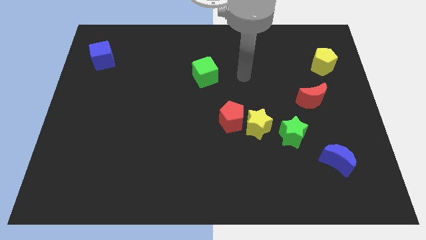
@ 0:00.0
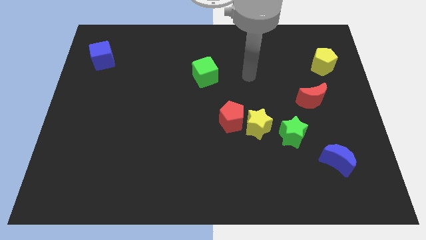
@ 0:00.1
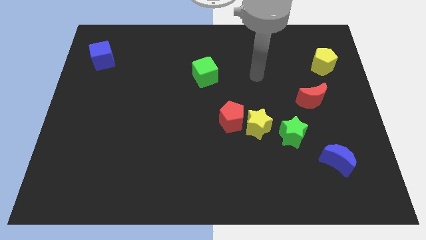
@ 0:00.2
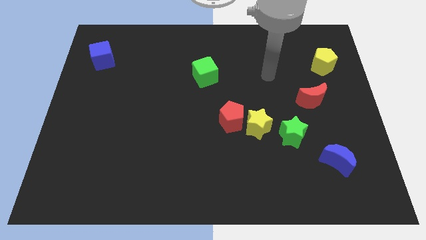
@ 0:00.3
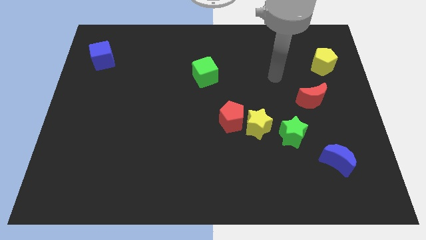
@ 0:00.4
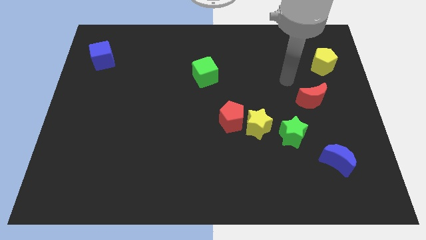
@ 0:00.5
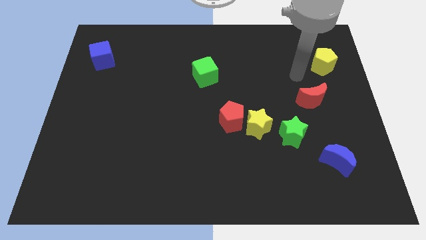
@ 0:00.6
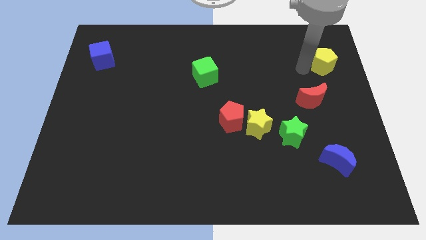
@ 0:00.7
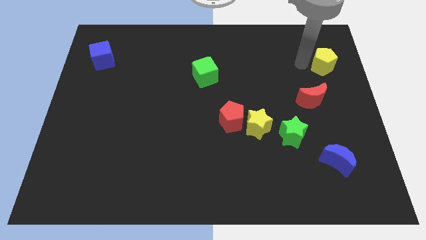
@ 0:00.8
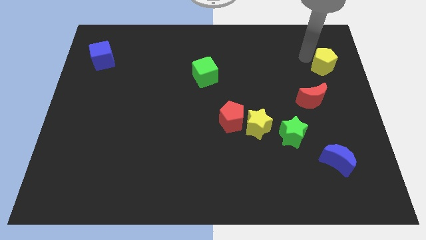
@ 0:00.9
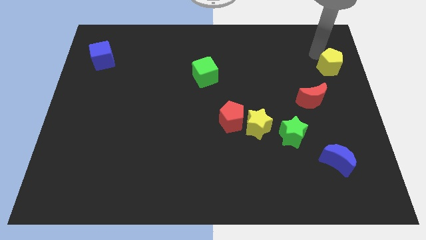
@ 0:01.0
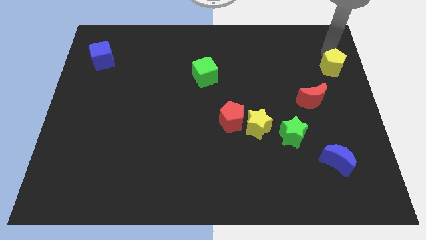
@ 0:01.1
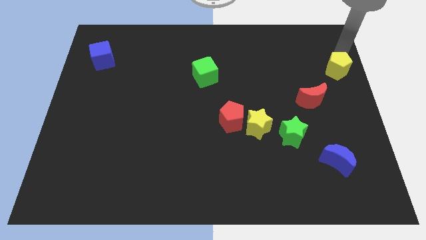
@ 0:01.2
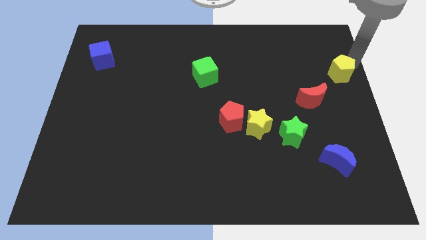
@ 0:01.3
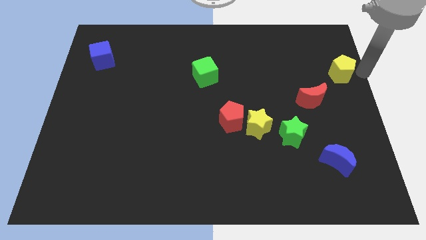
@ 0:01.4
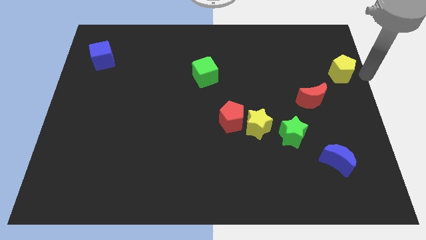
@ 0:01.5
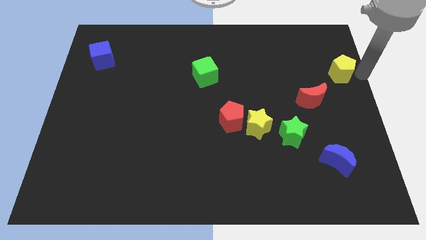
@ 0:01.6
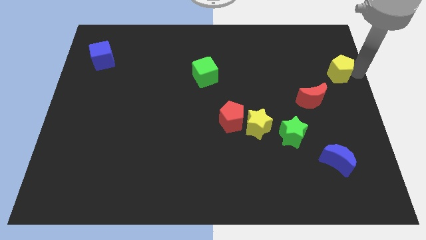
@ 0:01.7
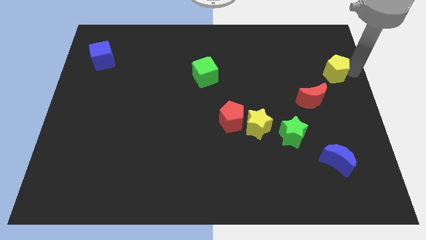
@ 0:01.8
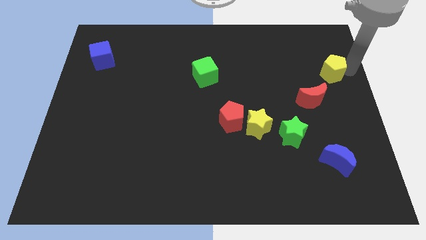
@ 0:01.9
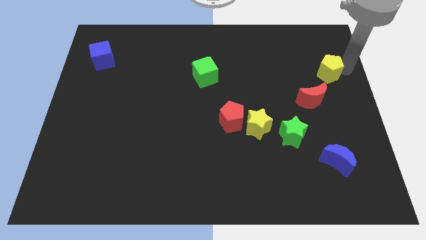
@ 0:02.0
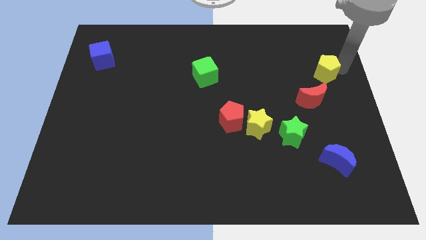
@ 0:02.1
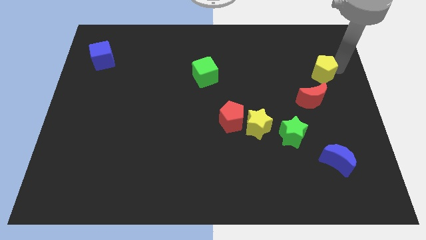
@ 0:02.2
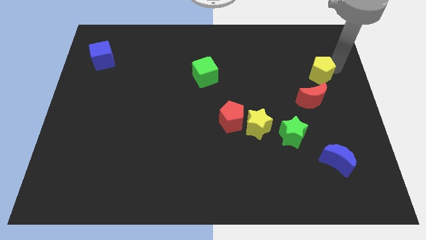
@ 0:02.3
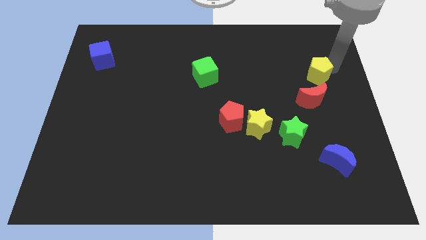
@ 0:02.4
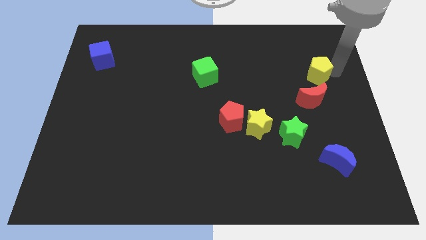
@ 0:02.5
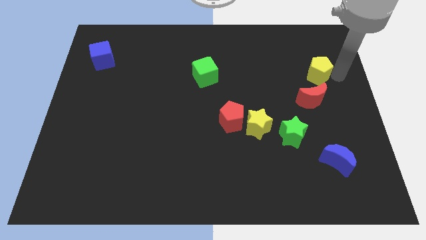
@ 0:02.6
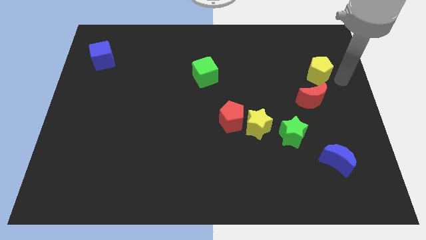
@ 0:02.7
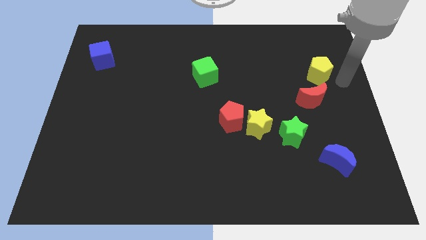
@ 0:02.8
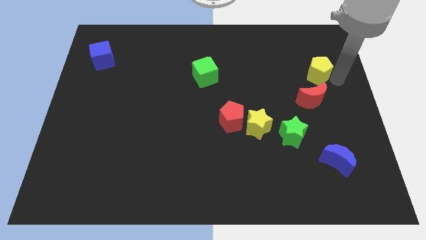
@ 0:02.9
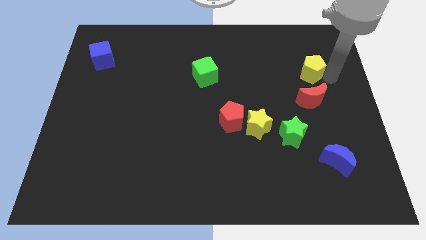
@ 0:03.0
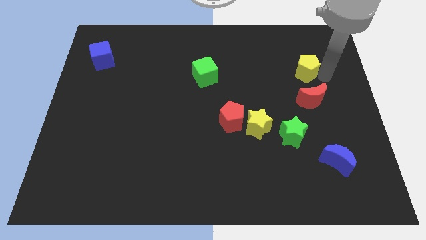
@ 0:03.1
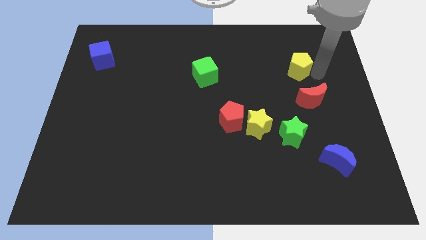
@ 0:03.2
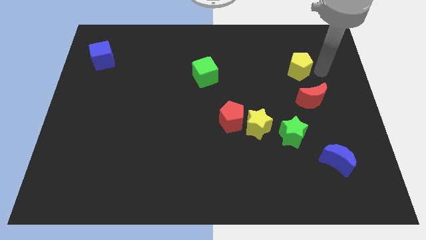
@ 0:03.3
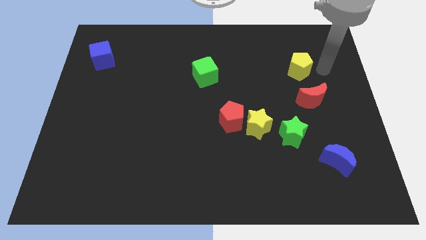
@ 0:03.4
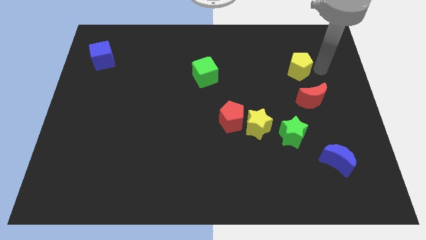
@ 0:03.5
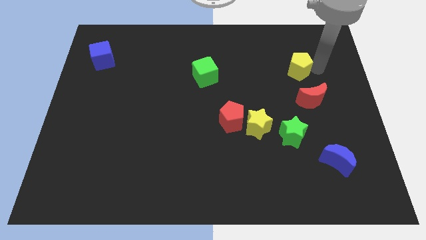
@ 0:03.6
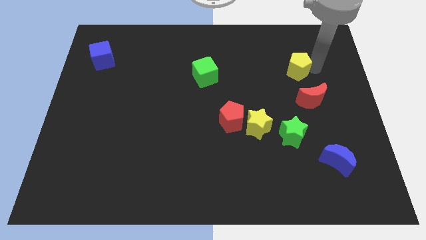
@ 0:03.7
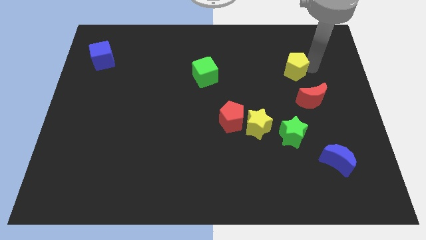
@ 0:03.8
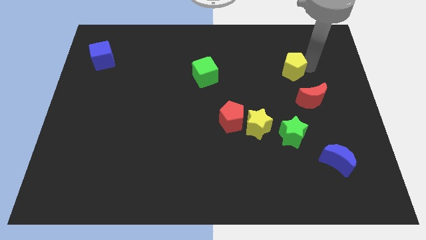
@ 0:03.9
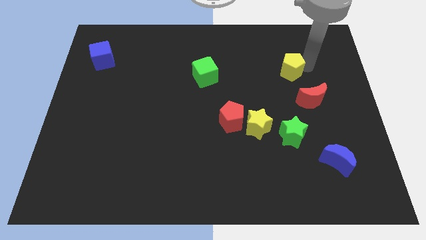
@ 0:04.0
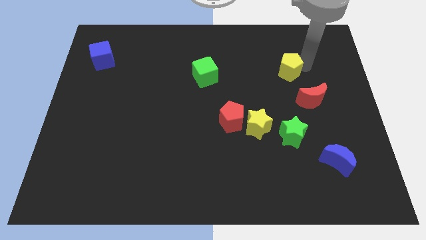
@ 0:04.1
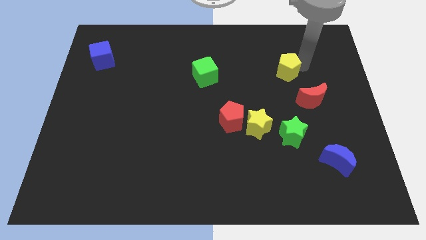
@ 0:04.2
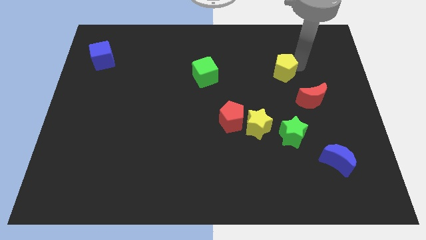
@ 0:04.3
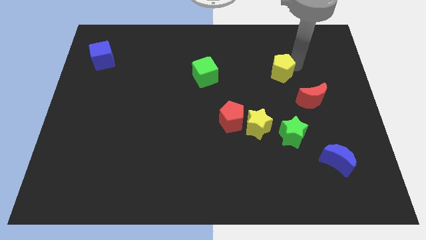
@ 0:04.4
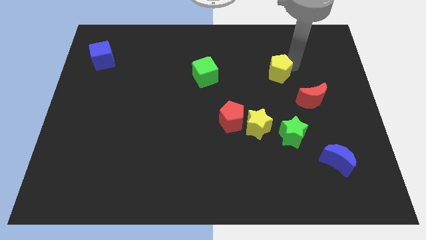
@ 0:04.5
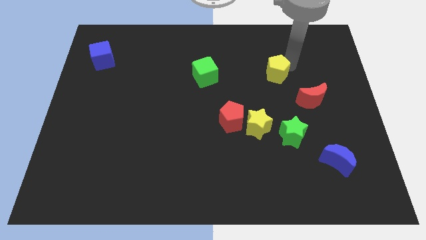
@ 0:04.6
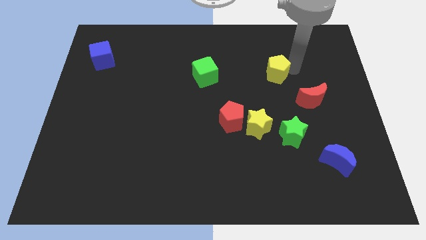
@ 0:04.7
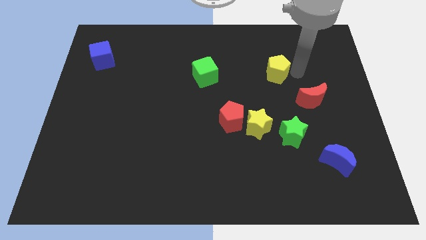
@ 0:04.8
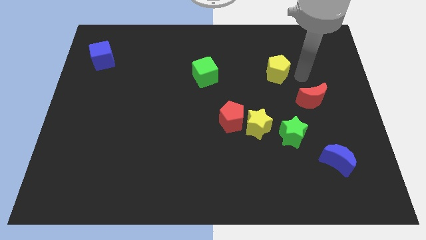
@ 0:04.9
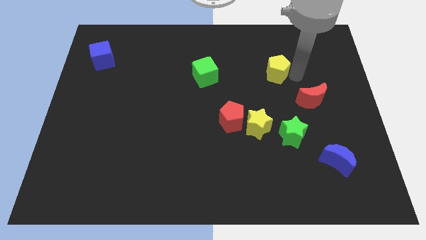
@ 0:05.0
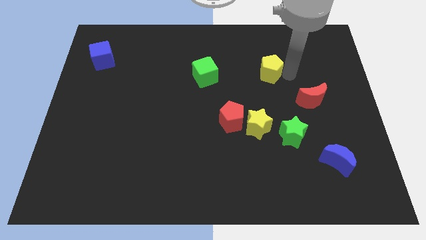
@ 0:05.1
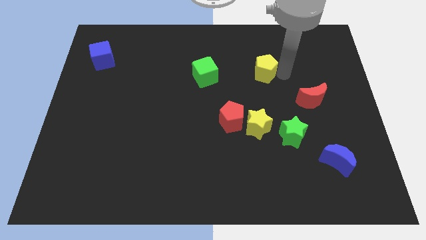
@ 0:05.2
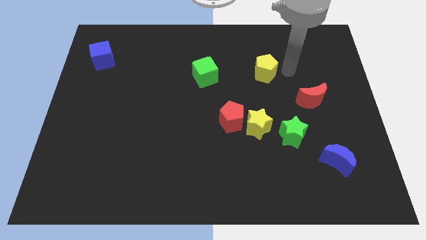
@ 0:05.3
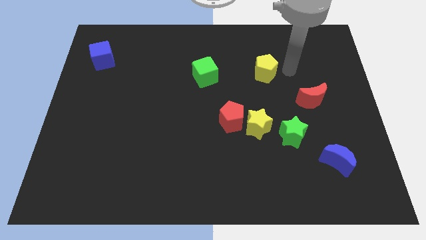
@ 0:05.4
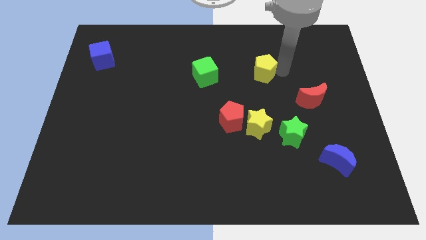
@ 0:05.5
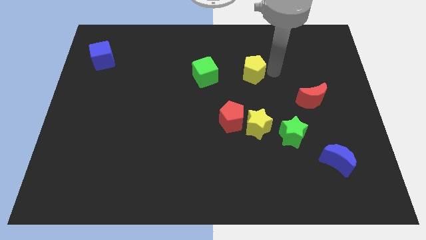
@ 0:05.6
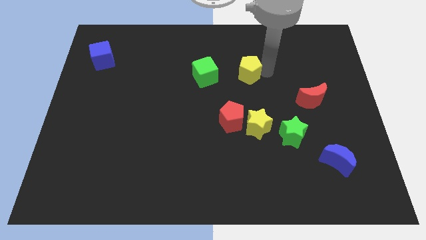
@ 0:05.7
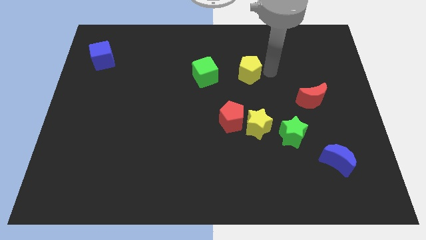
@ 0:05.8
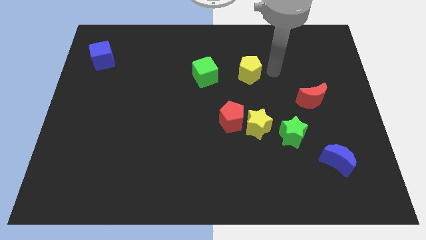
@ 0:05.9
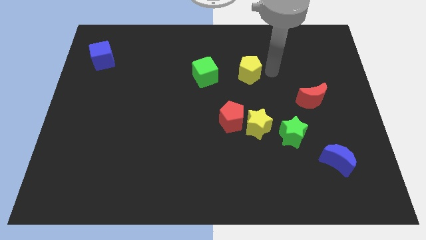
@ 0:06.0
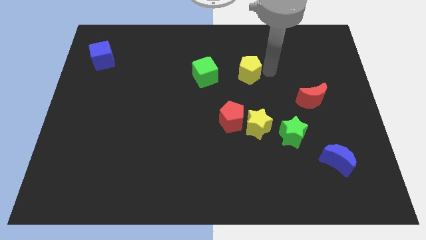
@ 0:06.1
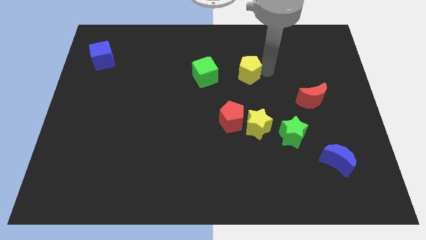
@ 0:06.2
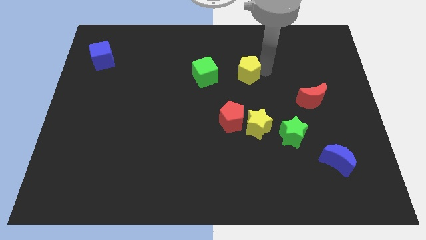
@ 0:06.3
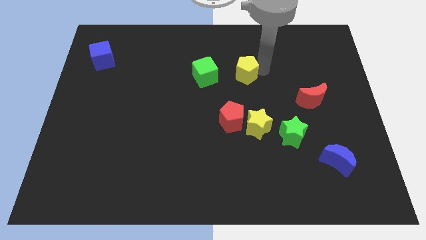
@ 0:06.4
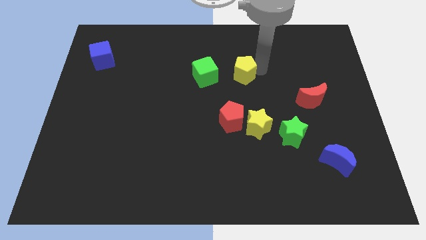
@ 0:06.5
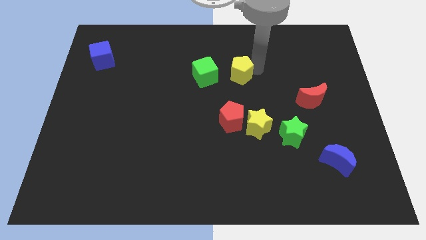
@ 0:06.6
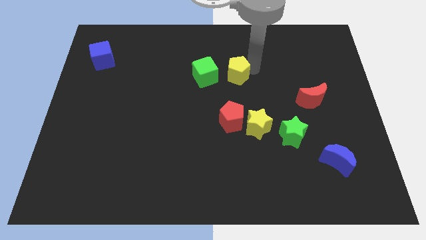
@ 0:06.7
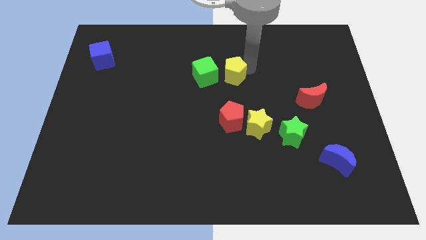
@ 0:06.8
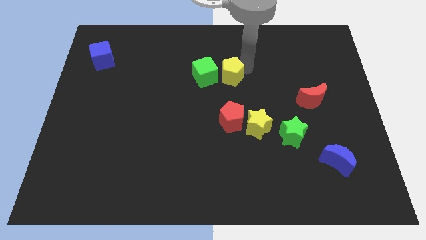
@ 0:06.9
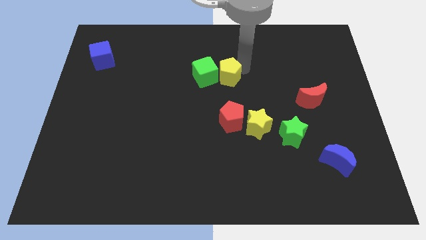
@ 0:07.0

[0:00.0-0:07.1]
move the yellow pentagon close to the green cube

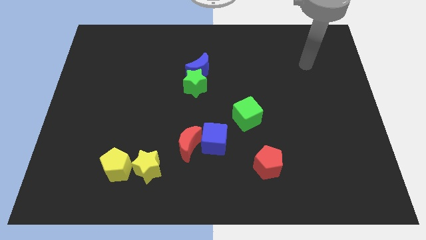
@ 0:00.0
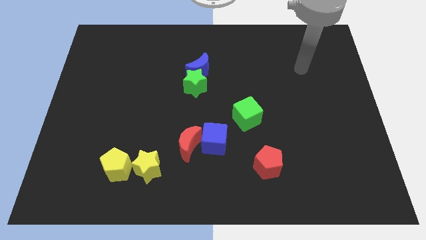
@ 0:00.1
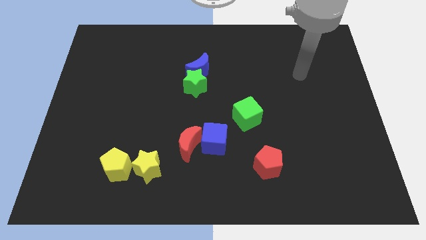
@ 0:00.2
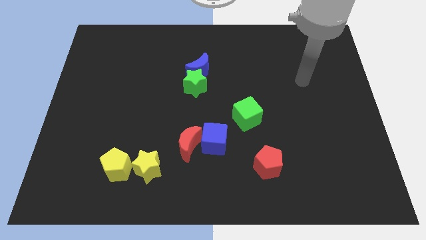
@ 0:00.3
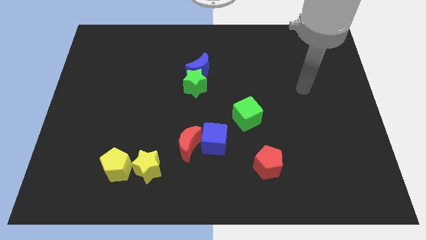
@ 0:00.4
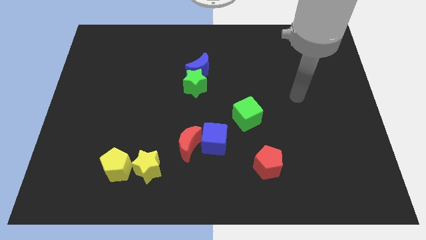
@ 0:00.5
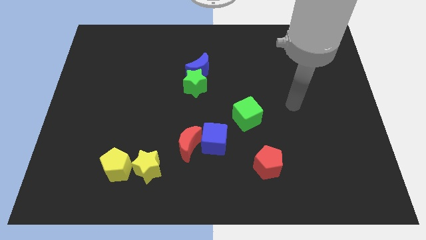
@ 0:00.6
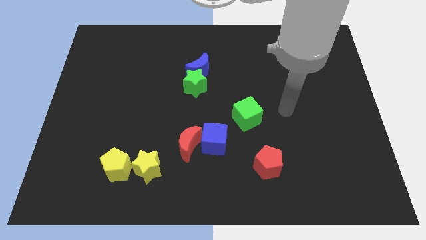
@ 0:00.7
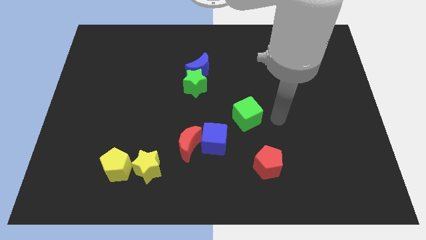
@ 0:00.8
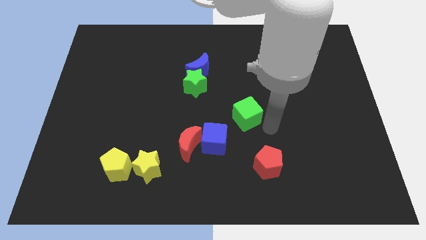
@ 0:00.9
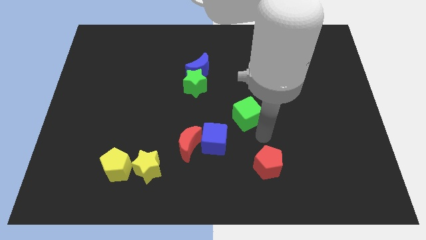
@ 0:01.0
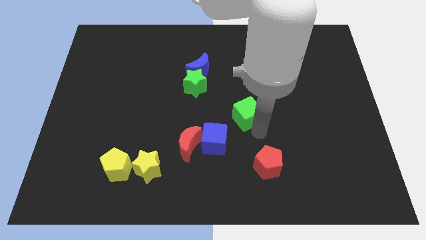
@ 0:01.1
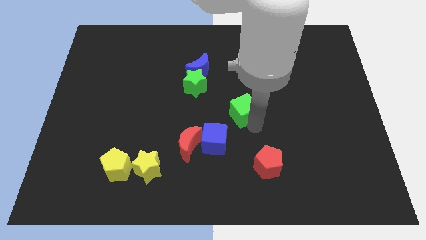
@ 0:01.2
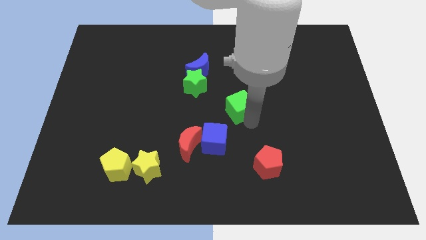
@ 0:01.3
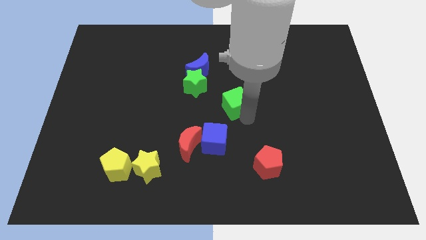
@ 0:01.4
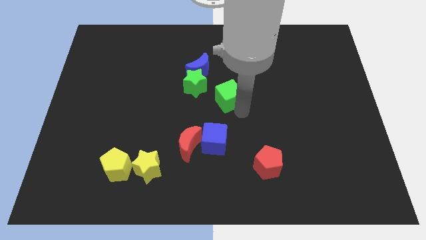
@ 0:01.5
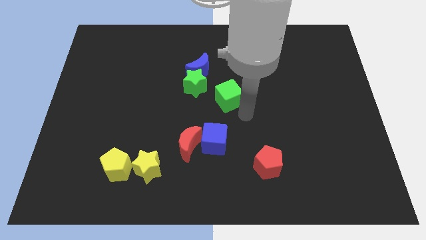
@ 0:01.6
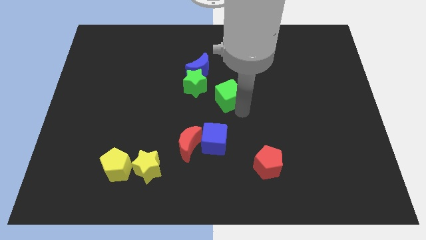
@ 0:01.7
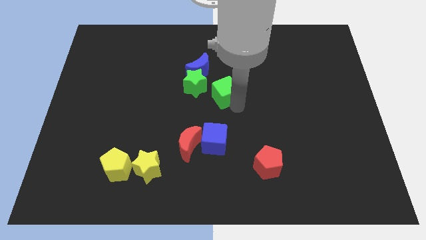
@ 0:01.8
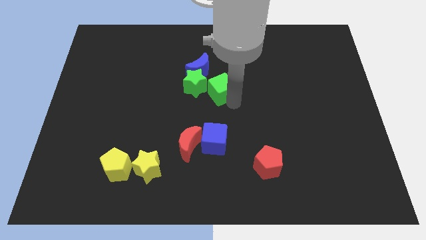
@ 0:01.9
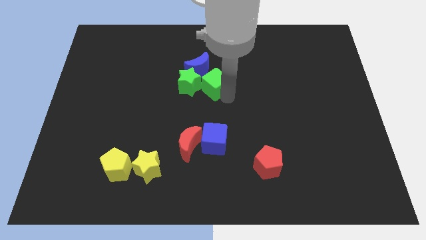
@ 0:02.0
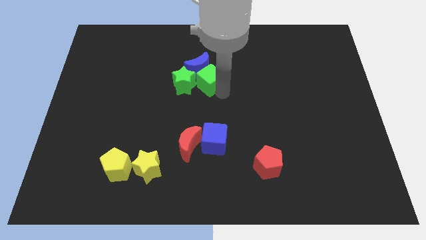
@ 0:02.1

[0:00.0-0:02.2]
put the green cube close to the blue moon
